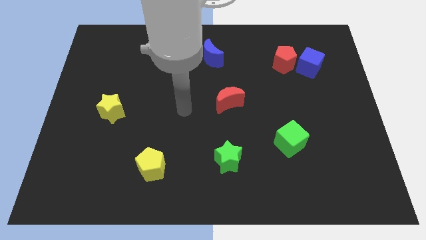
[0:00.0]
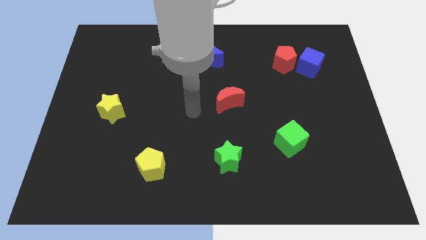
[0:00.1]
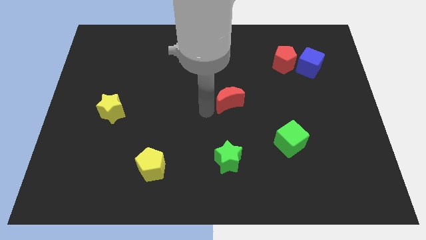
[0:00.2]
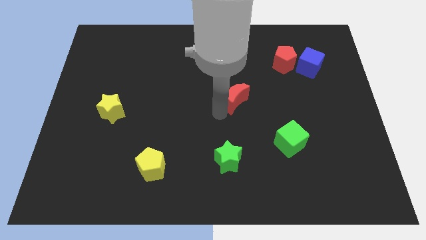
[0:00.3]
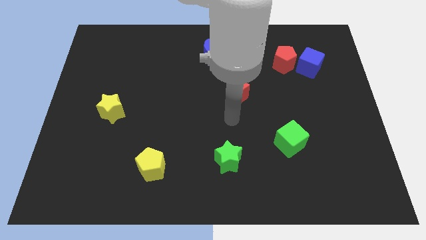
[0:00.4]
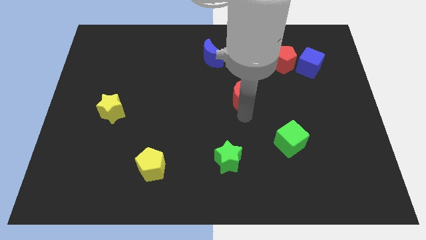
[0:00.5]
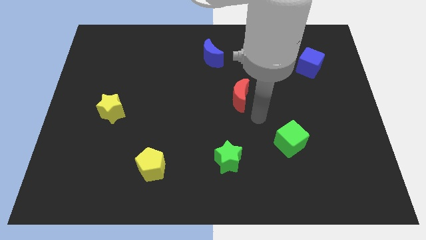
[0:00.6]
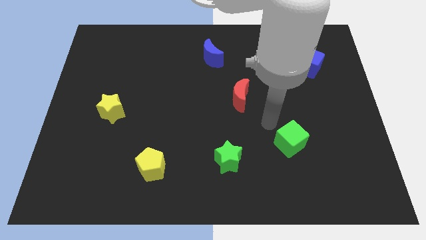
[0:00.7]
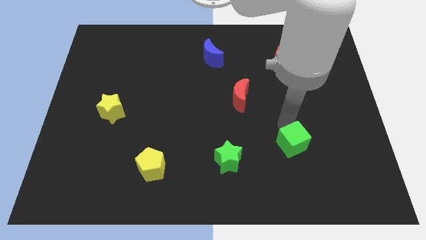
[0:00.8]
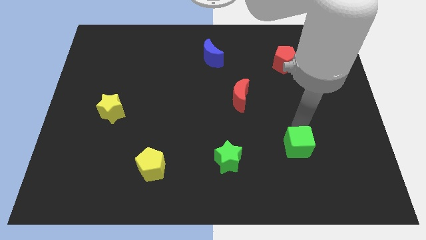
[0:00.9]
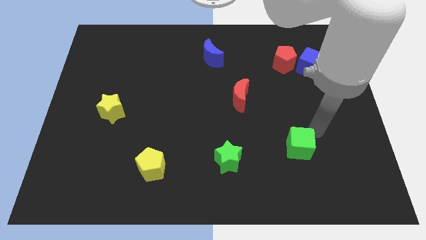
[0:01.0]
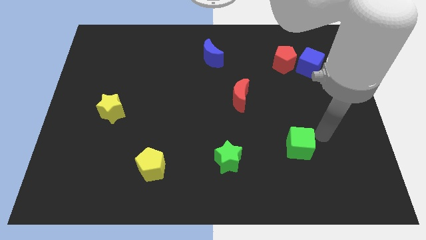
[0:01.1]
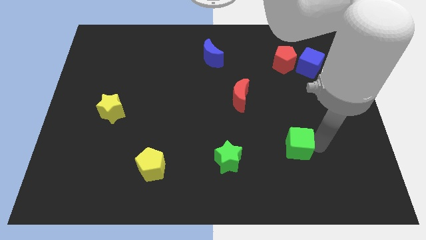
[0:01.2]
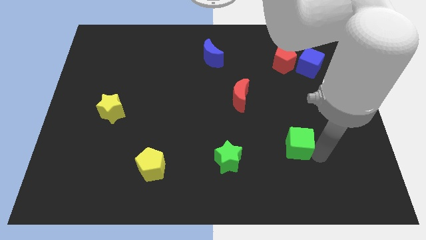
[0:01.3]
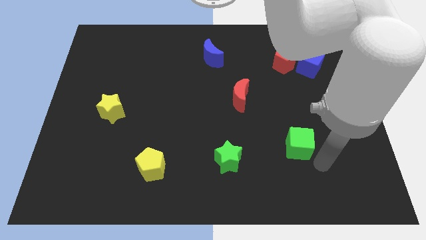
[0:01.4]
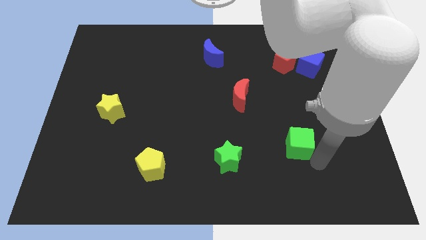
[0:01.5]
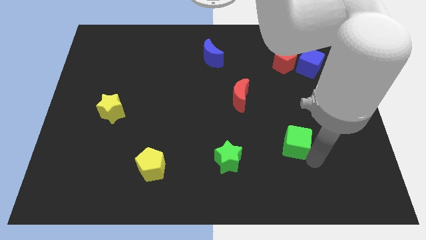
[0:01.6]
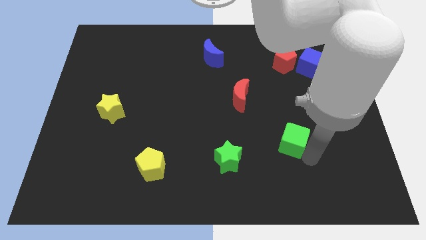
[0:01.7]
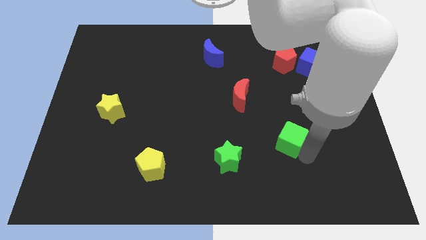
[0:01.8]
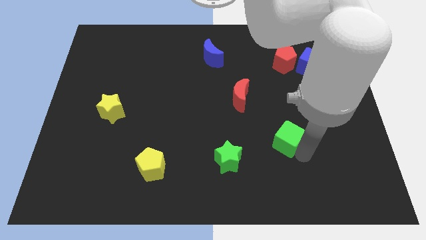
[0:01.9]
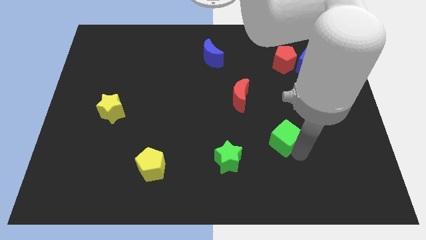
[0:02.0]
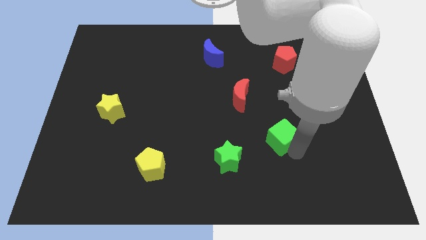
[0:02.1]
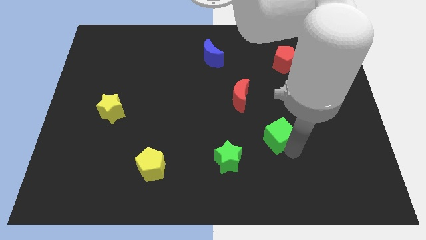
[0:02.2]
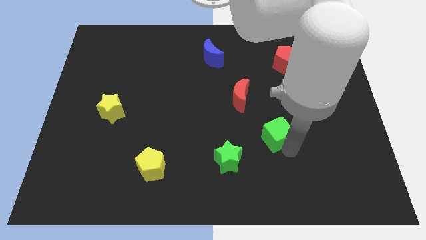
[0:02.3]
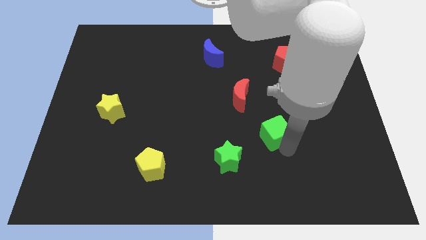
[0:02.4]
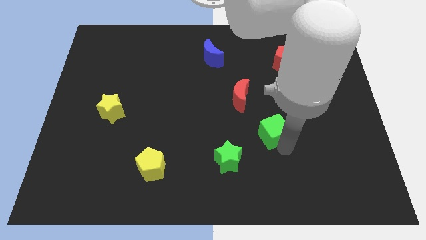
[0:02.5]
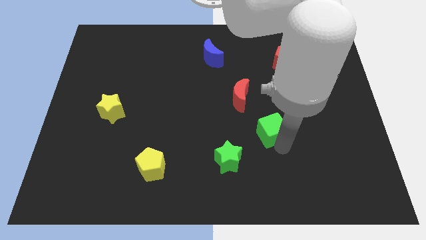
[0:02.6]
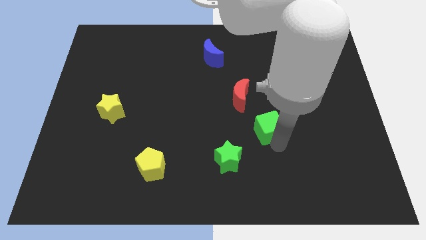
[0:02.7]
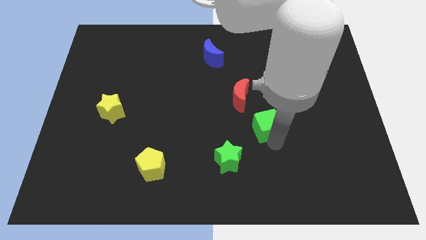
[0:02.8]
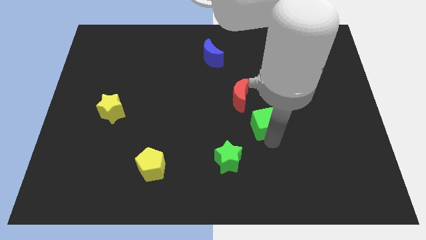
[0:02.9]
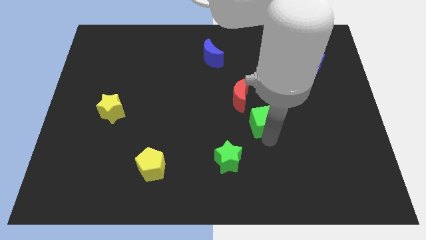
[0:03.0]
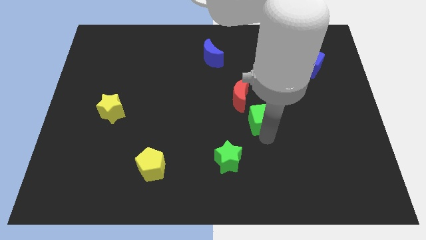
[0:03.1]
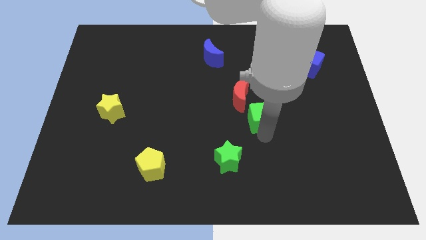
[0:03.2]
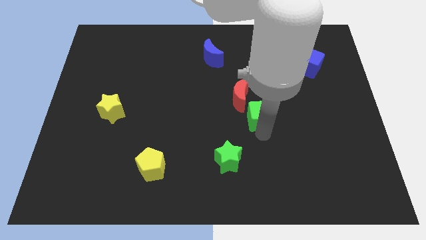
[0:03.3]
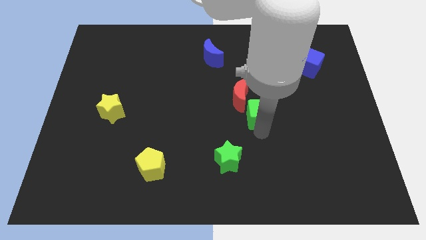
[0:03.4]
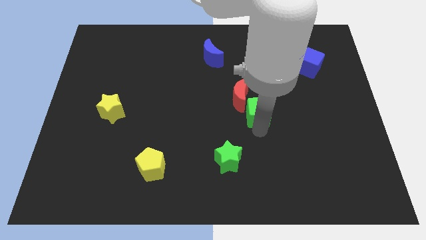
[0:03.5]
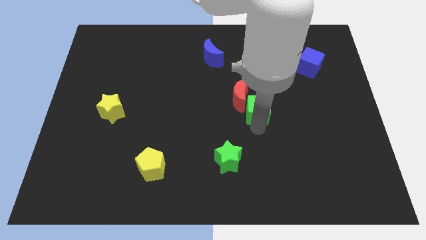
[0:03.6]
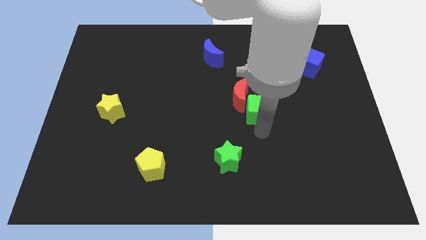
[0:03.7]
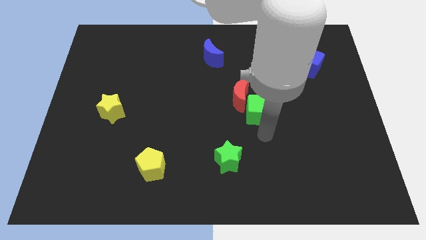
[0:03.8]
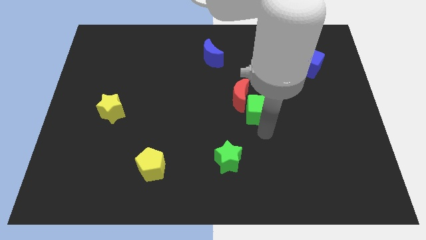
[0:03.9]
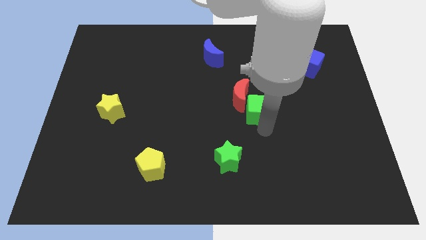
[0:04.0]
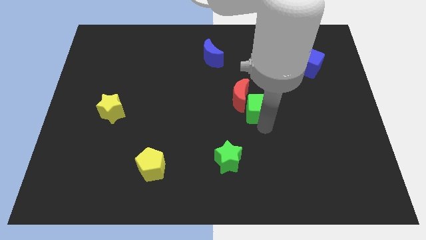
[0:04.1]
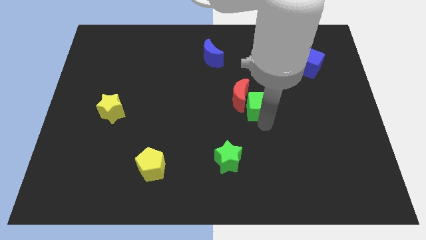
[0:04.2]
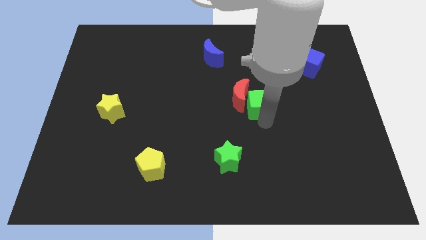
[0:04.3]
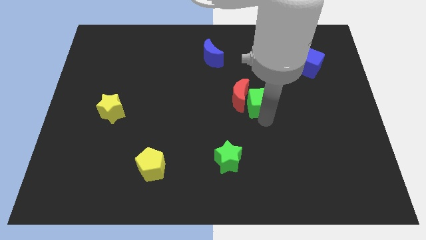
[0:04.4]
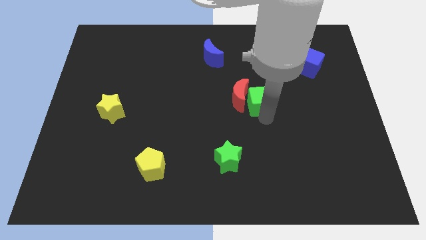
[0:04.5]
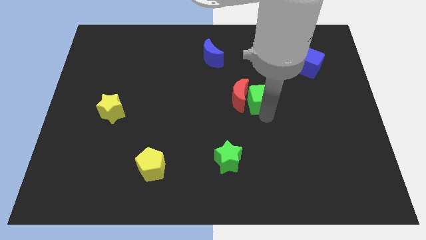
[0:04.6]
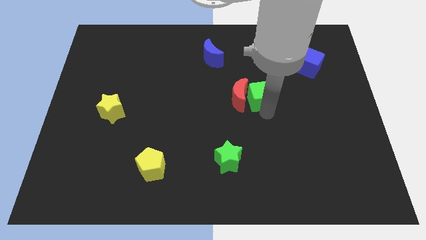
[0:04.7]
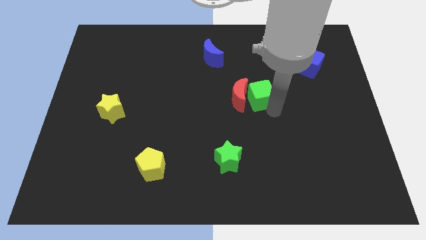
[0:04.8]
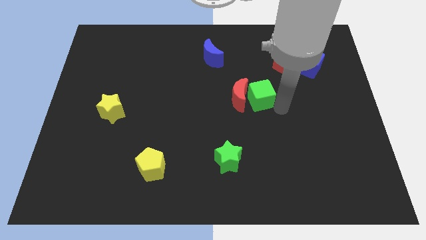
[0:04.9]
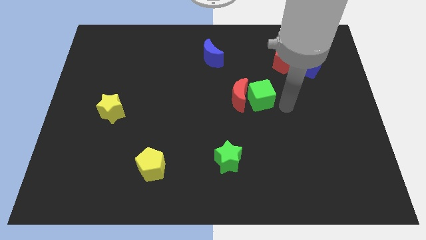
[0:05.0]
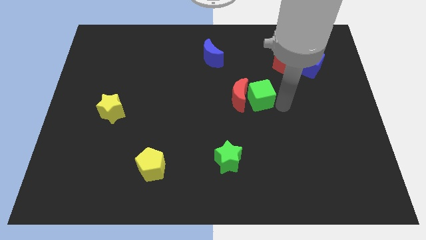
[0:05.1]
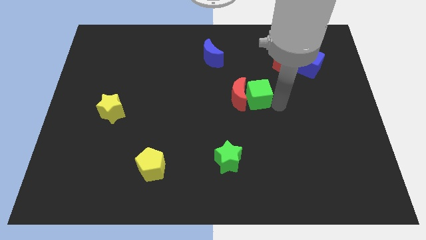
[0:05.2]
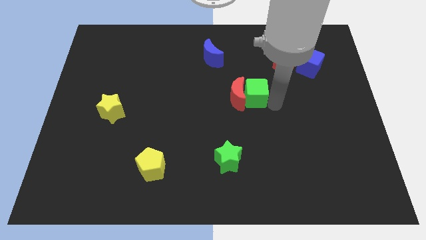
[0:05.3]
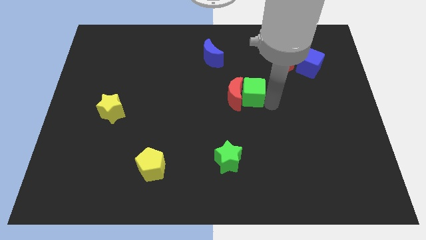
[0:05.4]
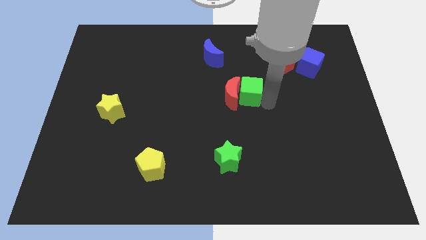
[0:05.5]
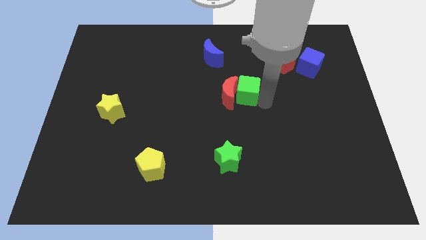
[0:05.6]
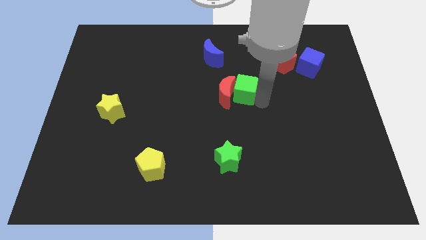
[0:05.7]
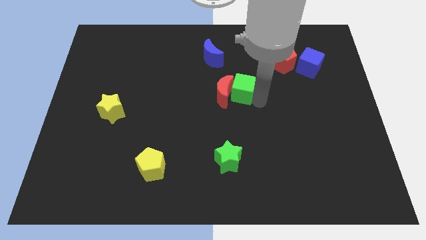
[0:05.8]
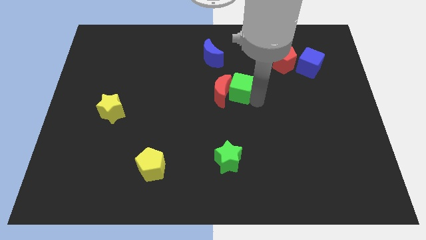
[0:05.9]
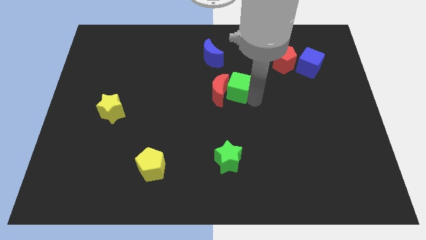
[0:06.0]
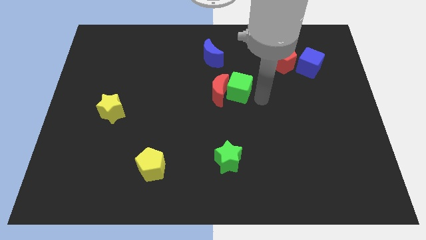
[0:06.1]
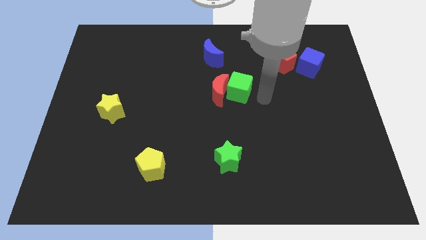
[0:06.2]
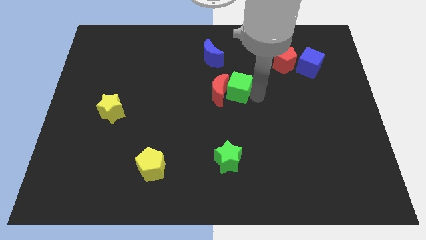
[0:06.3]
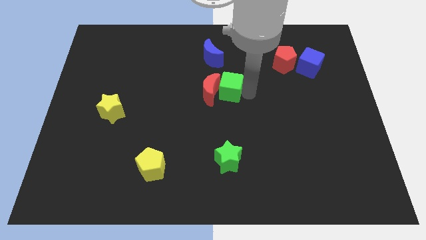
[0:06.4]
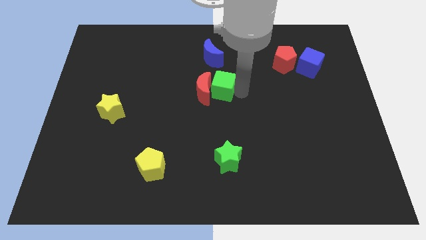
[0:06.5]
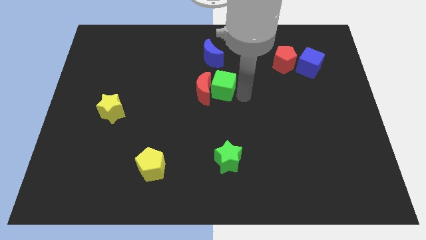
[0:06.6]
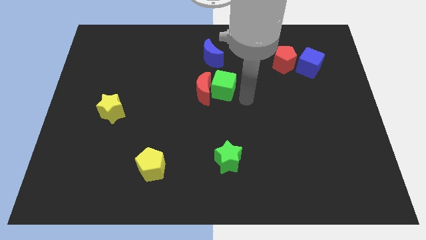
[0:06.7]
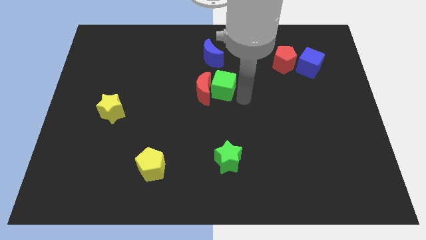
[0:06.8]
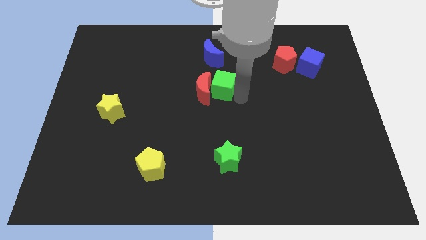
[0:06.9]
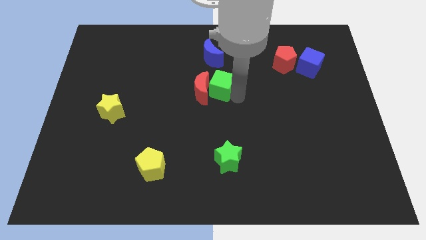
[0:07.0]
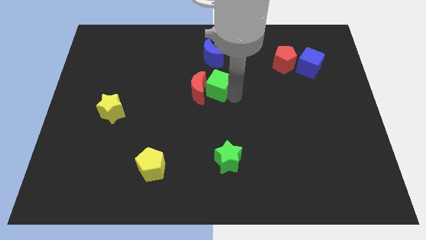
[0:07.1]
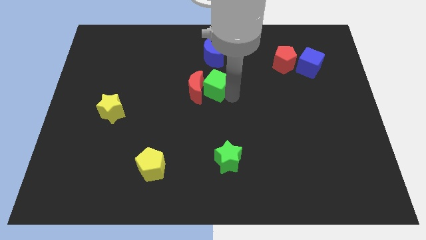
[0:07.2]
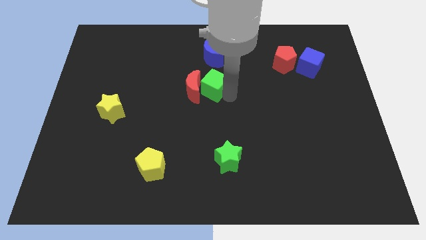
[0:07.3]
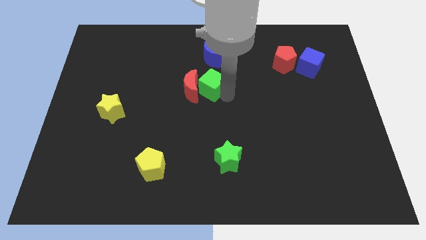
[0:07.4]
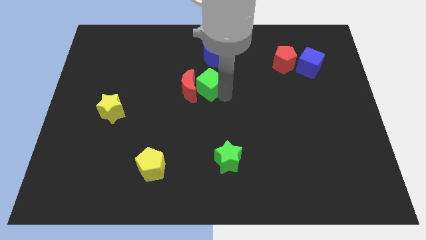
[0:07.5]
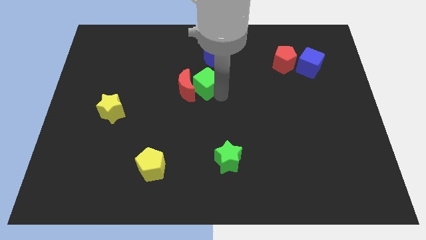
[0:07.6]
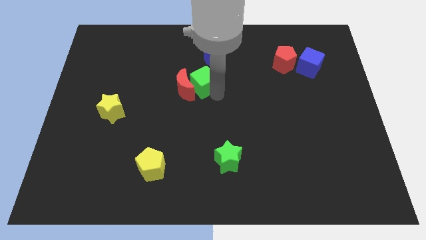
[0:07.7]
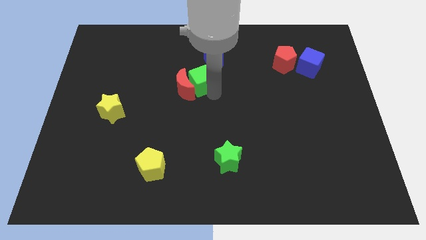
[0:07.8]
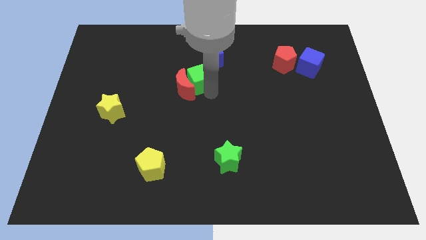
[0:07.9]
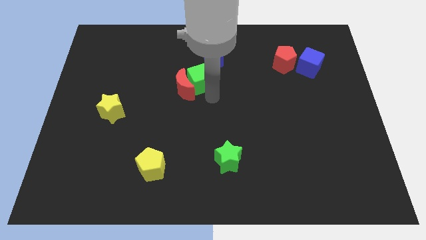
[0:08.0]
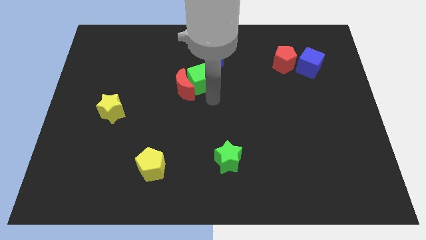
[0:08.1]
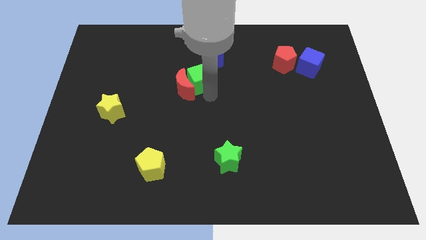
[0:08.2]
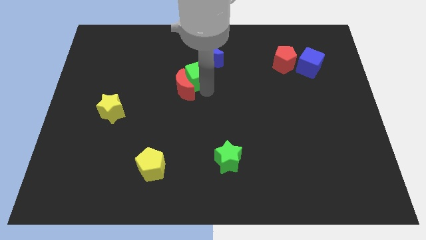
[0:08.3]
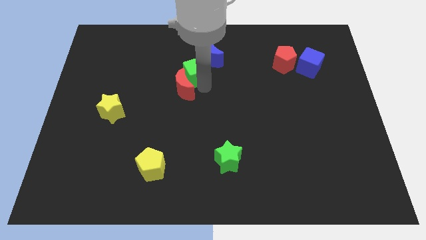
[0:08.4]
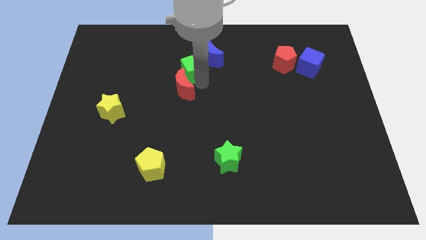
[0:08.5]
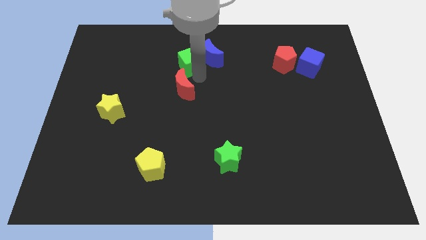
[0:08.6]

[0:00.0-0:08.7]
put the green cube to the left side of the blue moon
